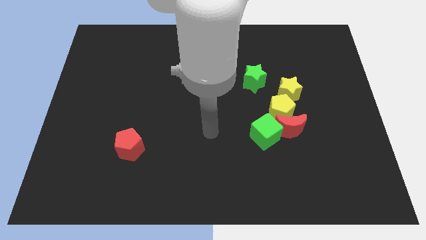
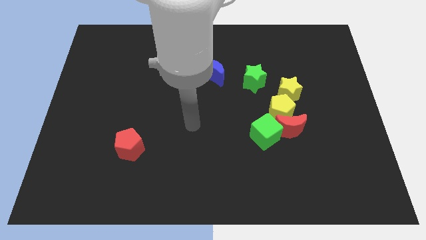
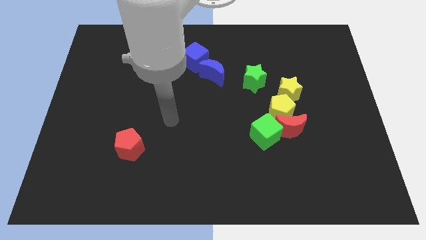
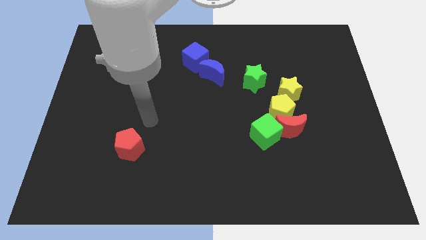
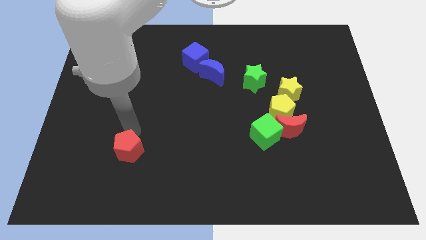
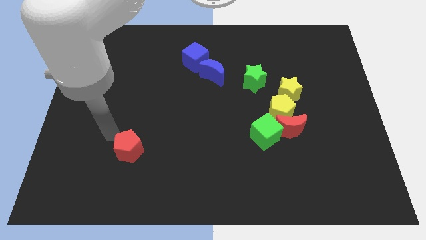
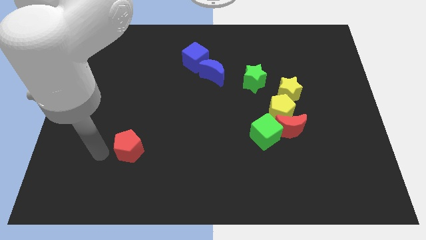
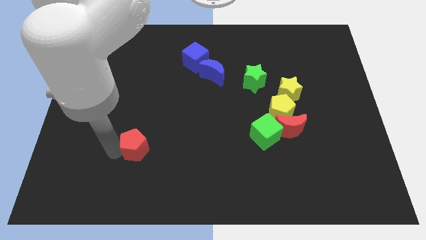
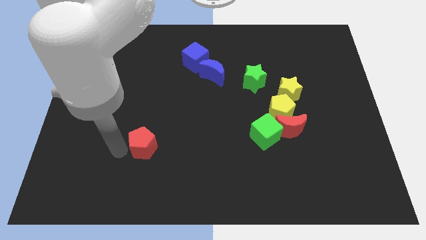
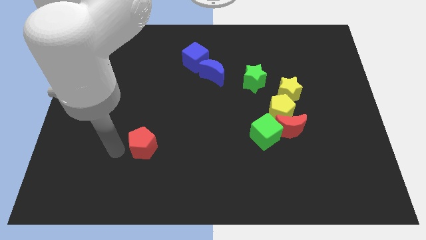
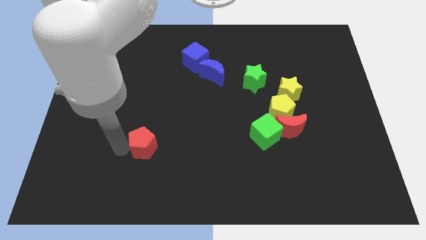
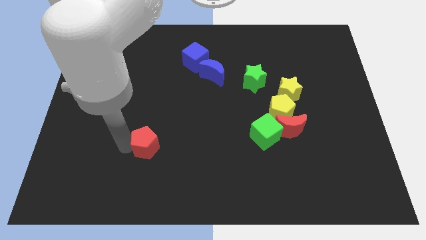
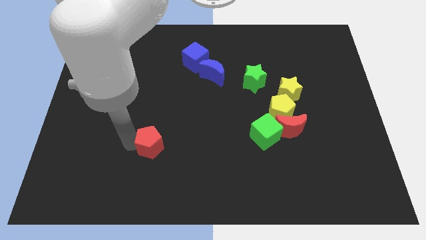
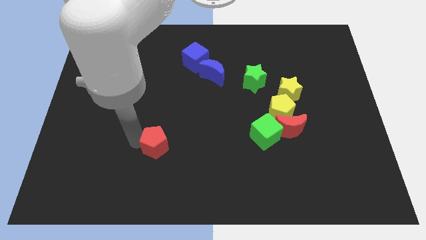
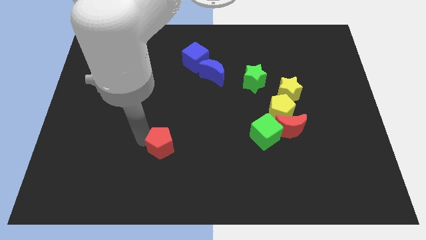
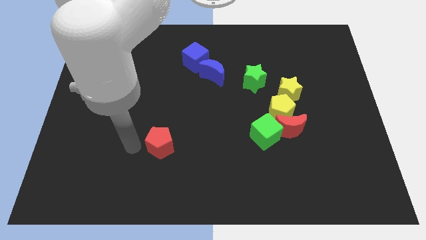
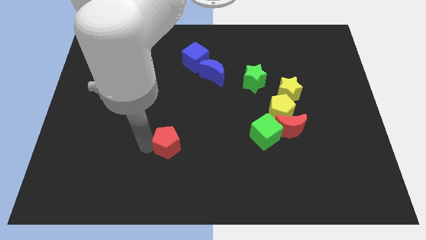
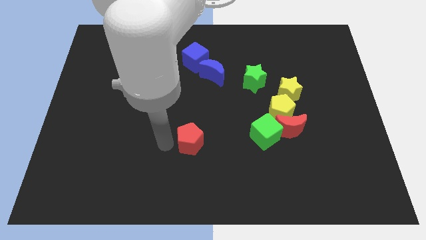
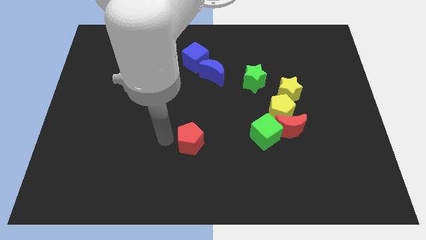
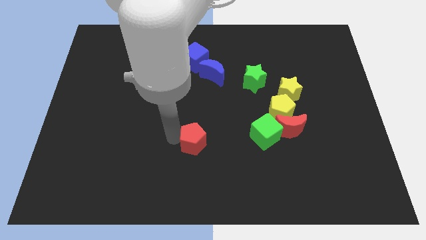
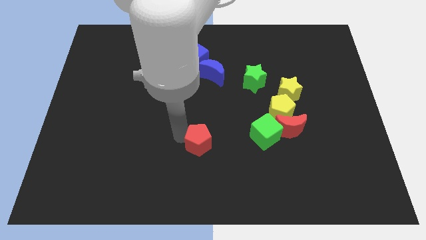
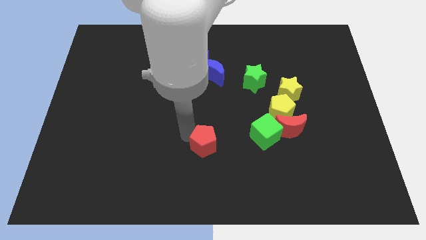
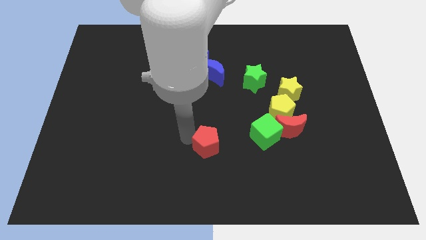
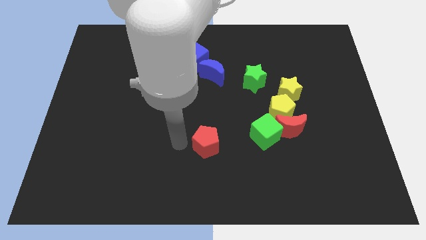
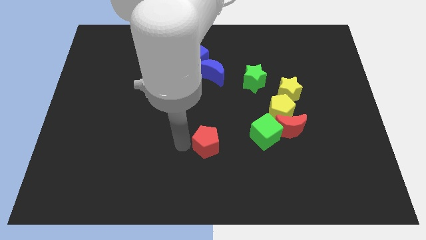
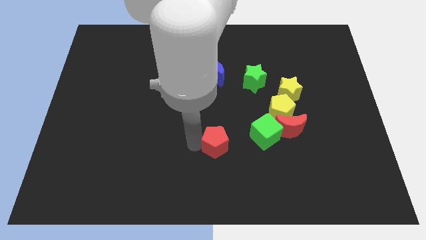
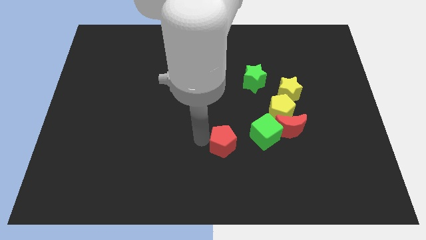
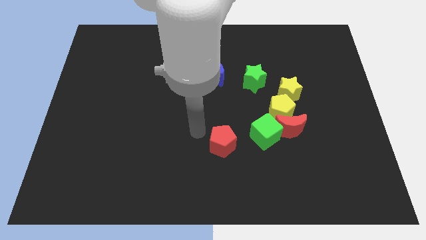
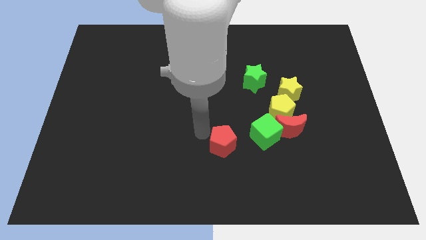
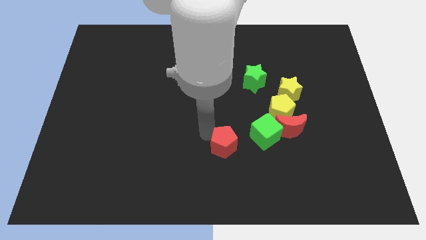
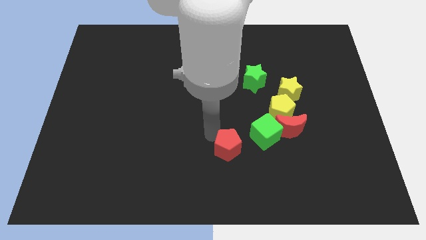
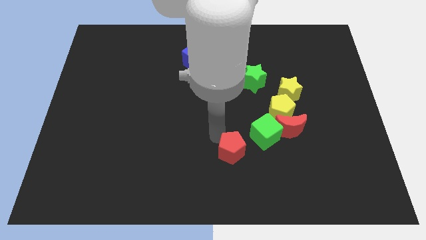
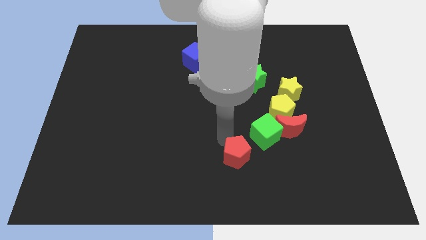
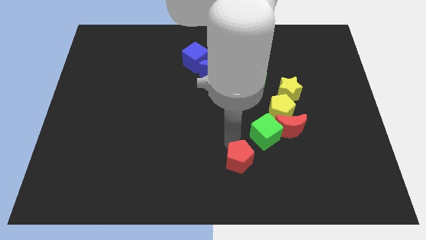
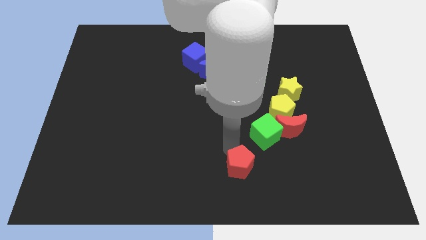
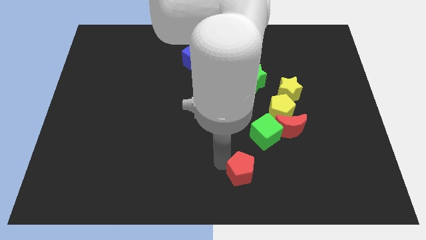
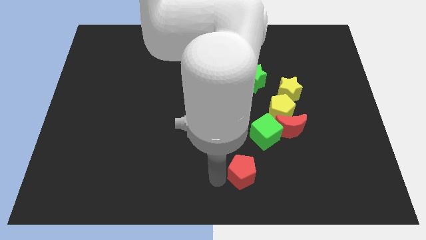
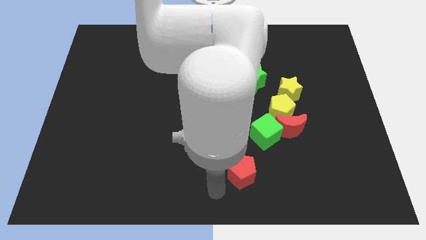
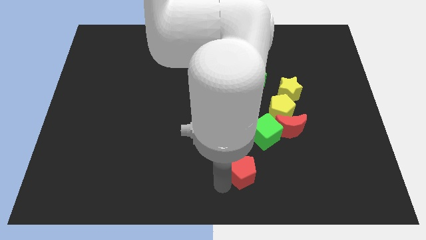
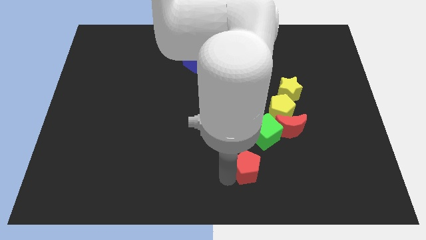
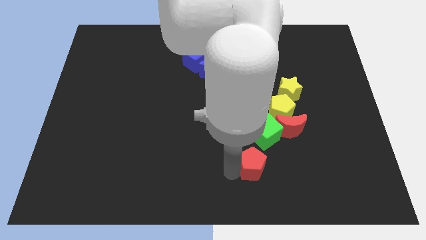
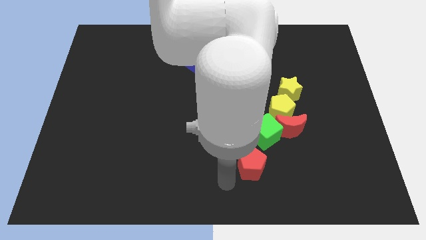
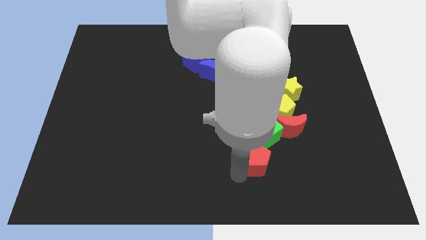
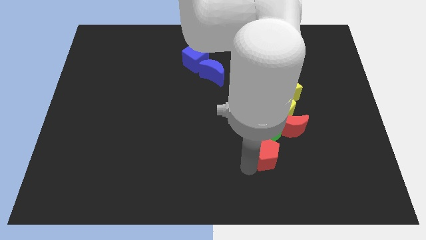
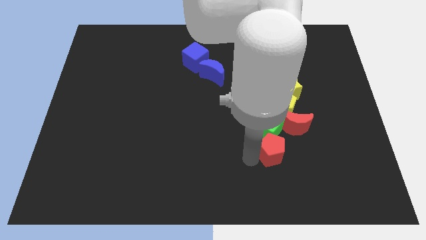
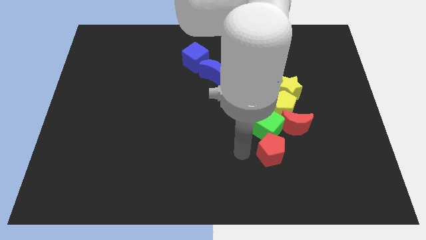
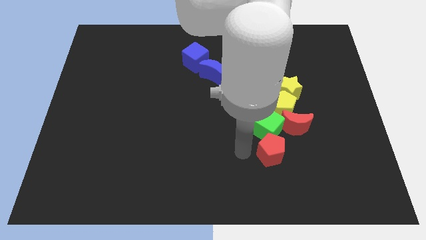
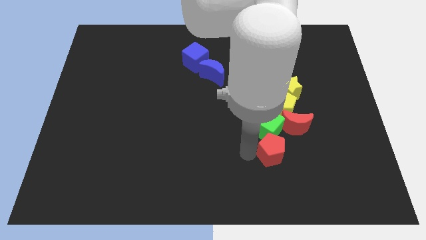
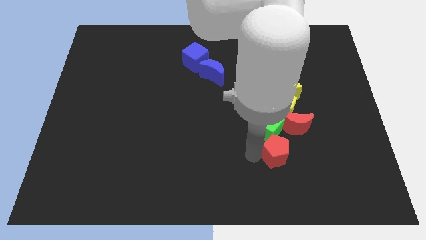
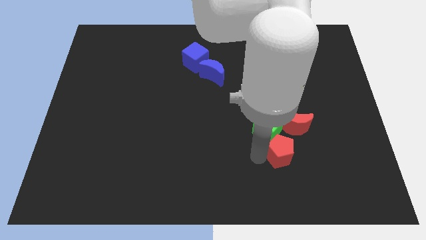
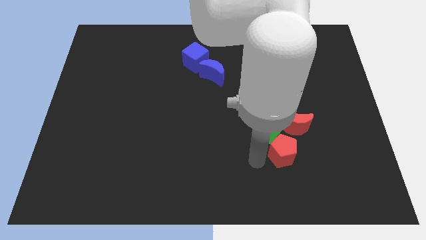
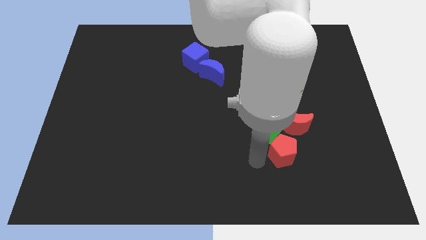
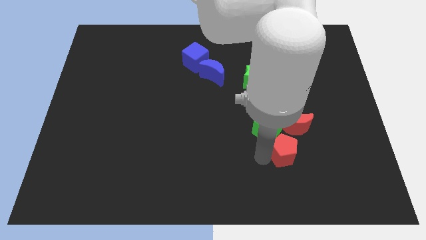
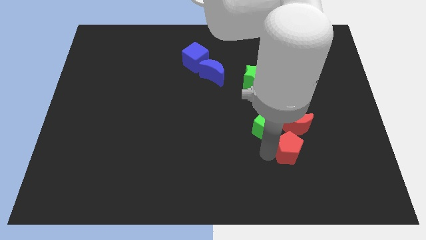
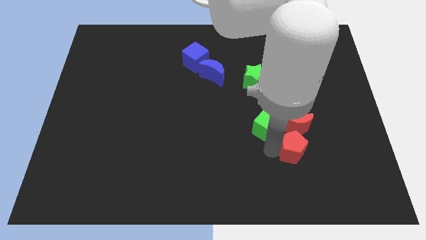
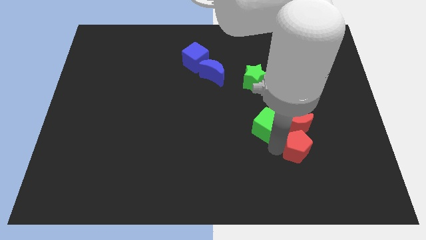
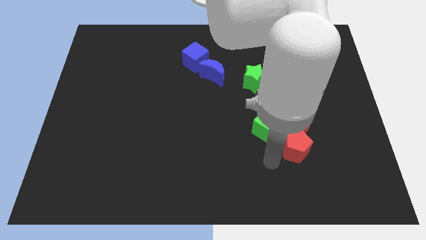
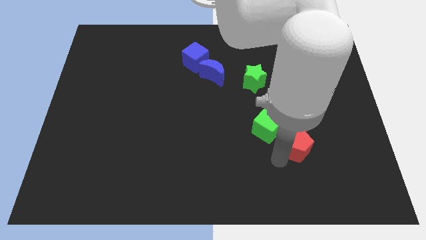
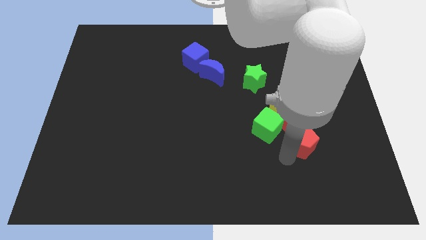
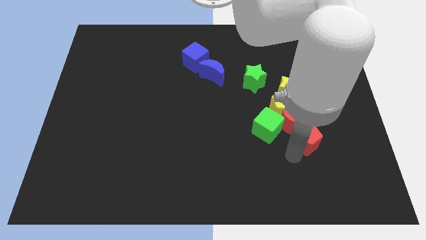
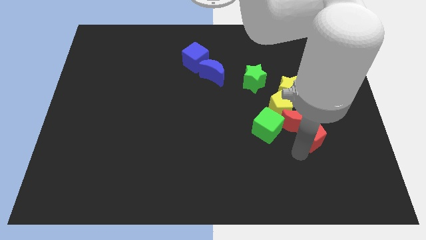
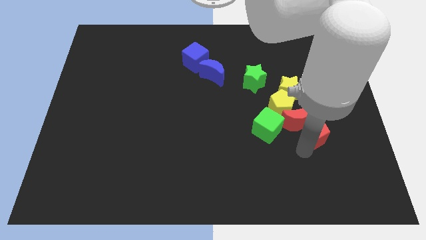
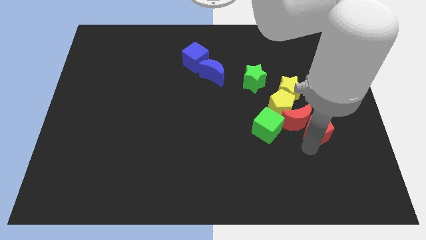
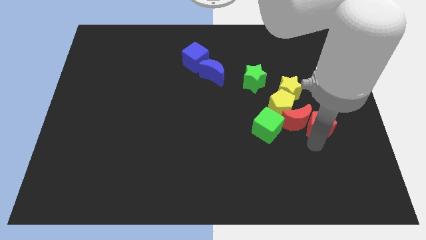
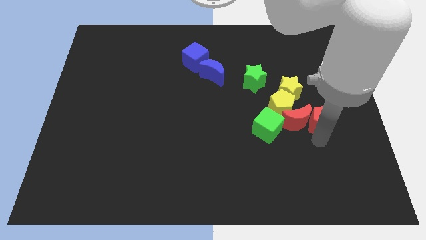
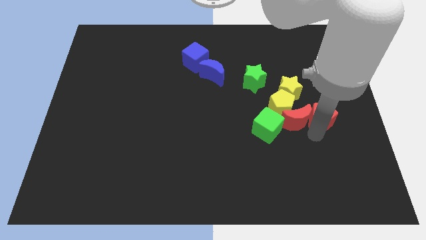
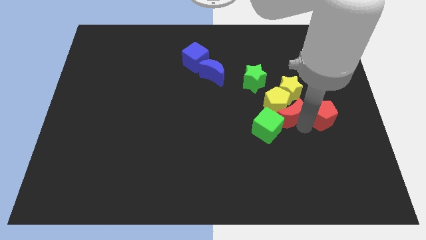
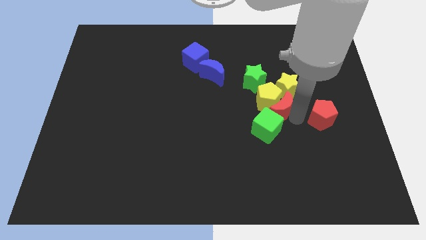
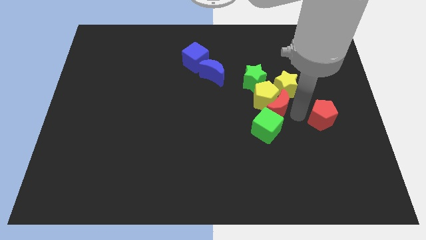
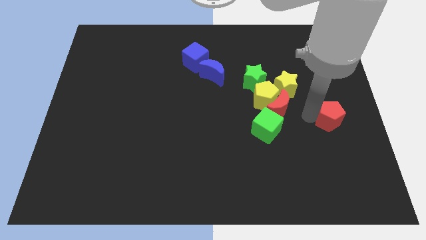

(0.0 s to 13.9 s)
push the red pentagon to the right side of the board
